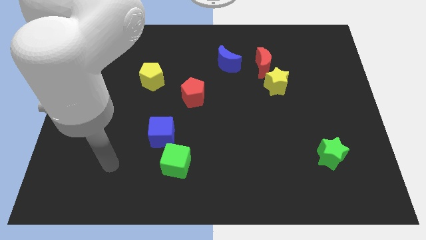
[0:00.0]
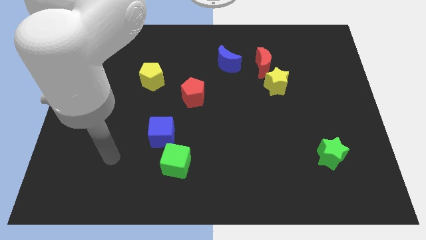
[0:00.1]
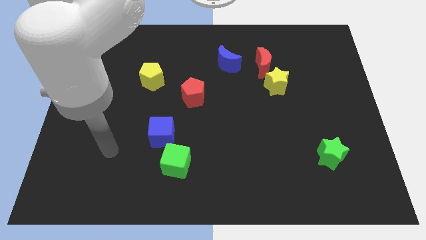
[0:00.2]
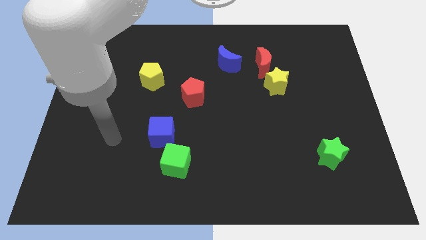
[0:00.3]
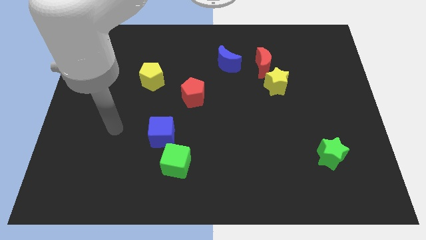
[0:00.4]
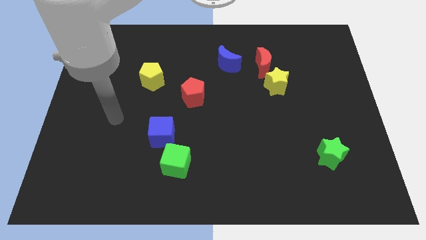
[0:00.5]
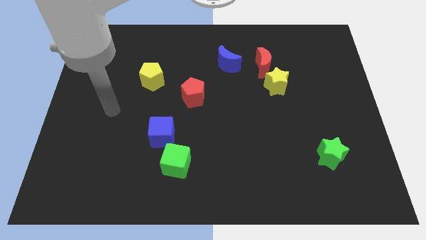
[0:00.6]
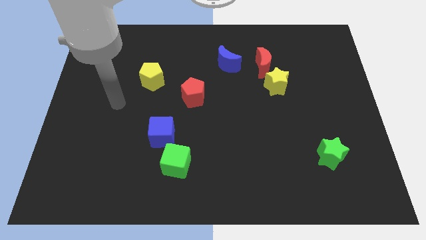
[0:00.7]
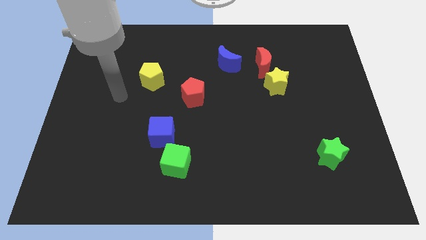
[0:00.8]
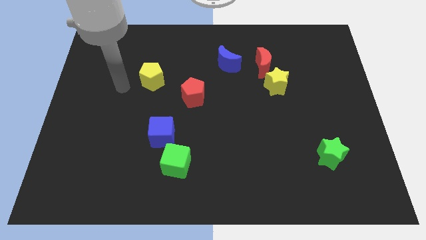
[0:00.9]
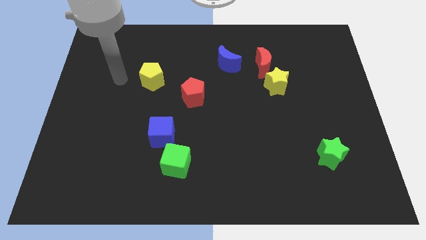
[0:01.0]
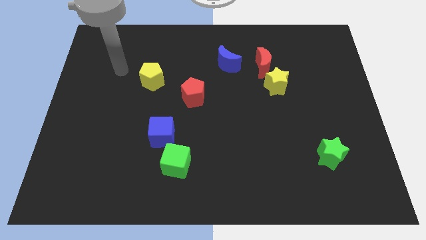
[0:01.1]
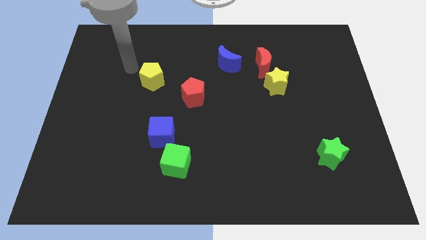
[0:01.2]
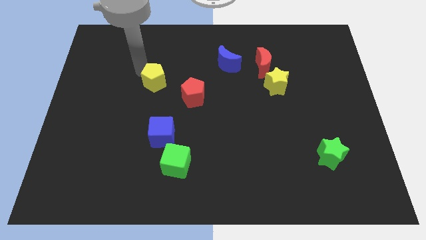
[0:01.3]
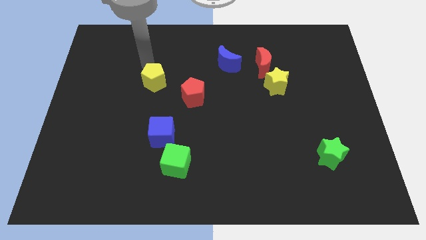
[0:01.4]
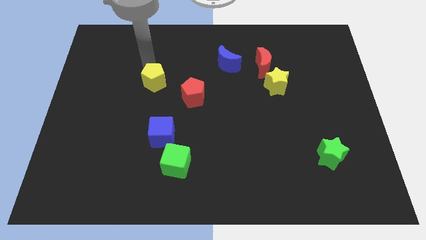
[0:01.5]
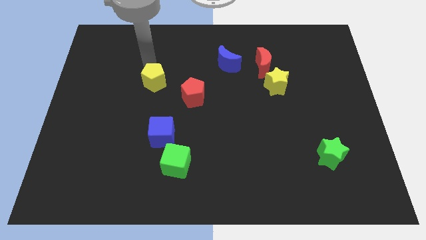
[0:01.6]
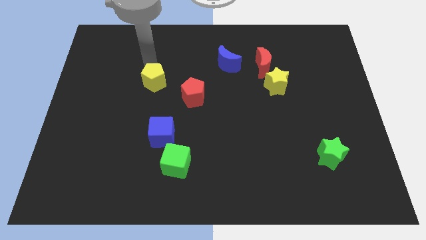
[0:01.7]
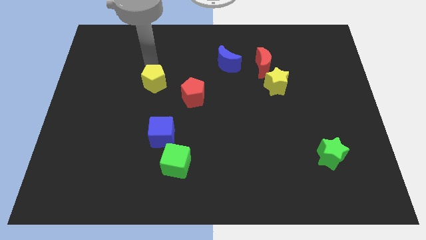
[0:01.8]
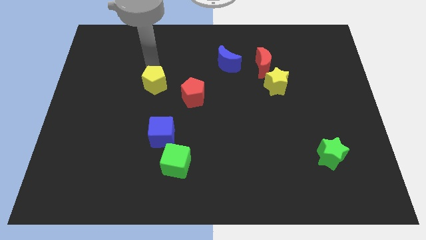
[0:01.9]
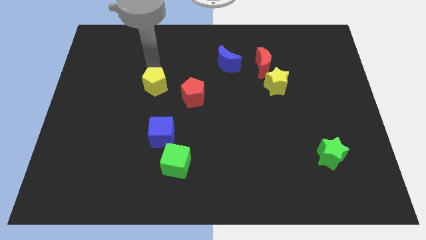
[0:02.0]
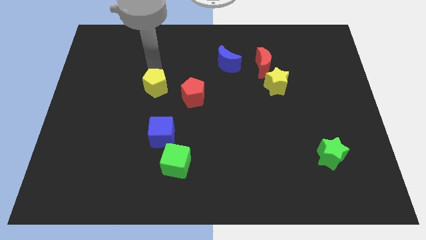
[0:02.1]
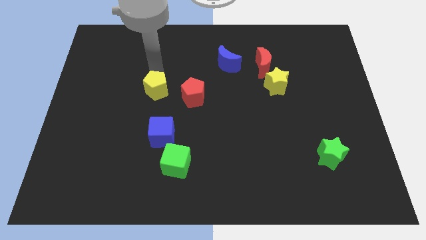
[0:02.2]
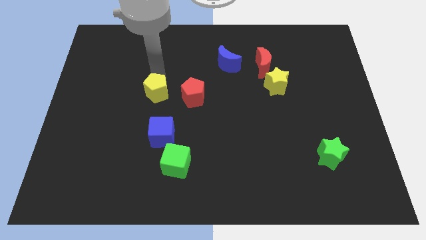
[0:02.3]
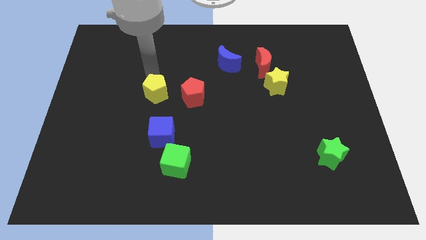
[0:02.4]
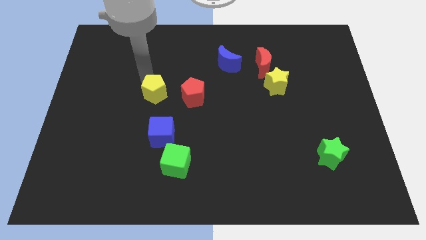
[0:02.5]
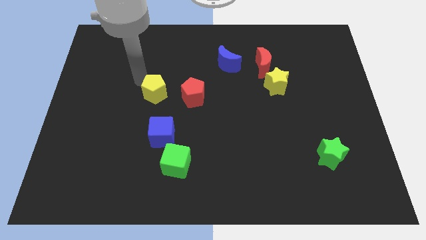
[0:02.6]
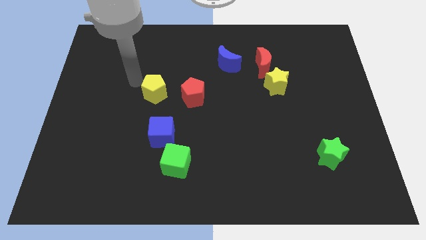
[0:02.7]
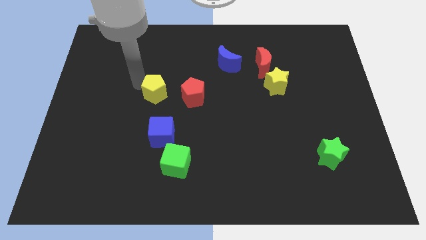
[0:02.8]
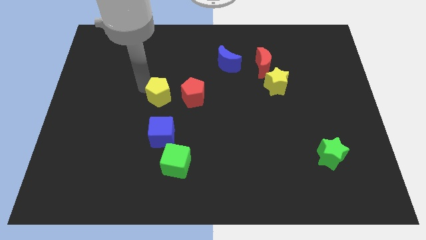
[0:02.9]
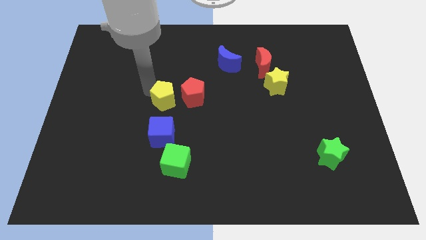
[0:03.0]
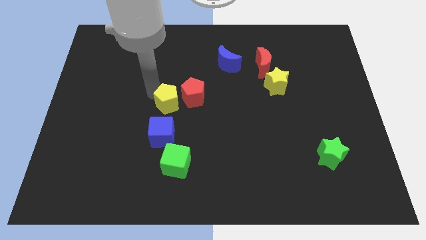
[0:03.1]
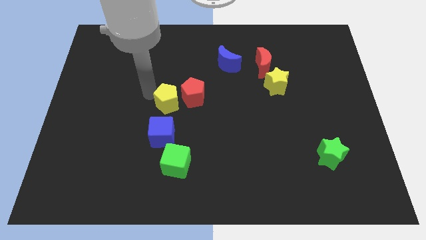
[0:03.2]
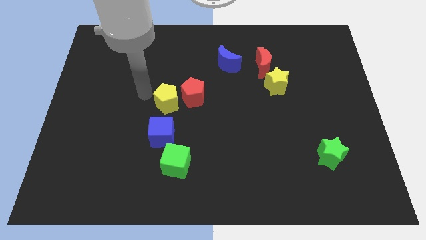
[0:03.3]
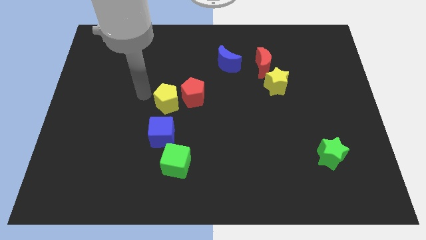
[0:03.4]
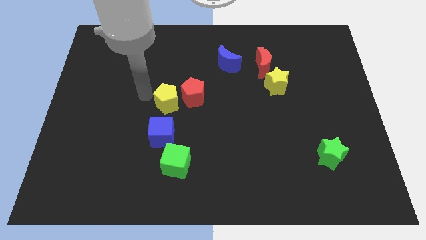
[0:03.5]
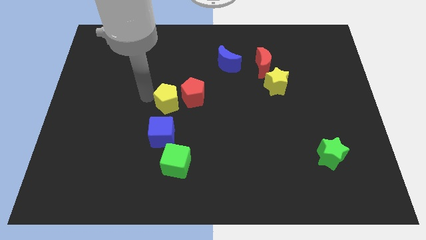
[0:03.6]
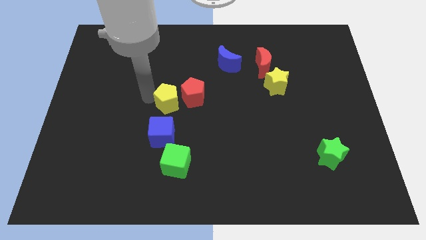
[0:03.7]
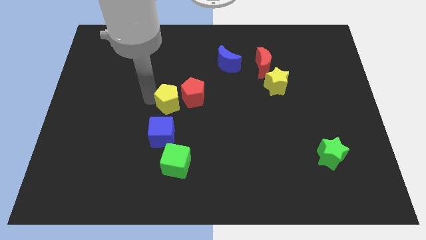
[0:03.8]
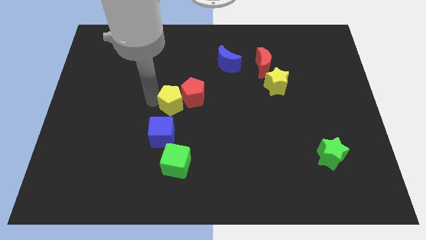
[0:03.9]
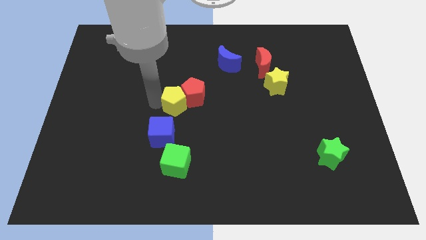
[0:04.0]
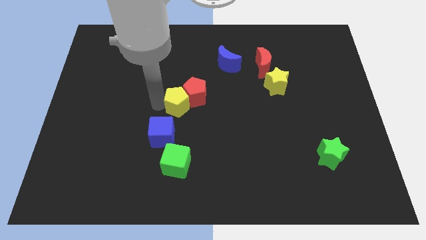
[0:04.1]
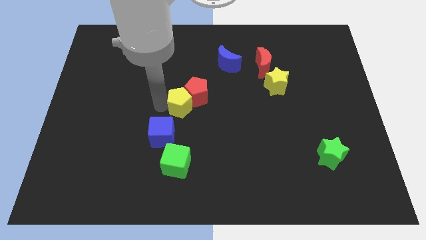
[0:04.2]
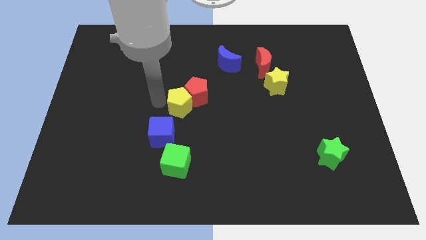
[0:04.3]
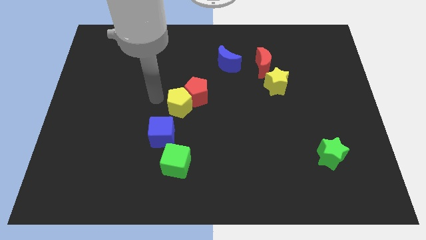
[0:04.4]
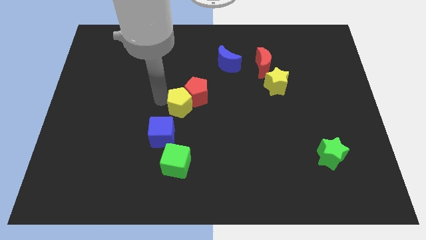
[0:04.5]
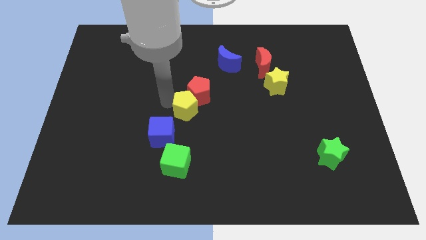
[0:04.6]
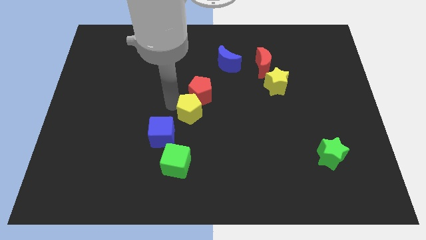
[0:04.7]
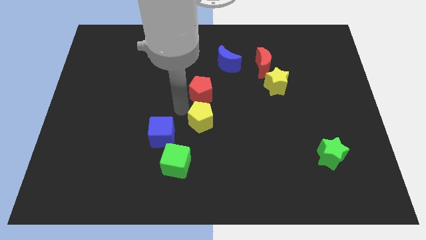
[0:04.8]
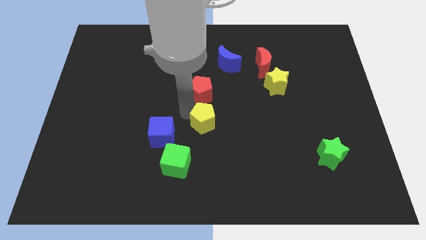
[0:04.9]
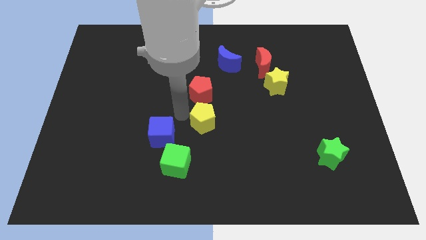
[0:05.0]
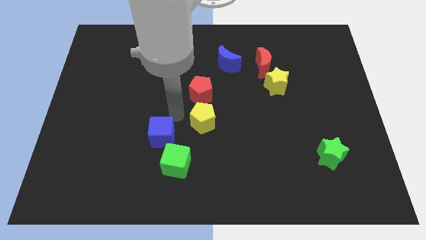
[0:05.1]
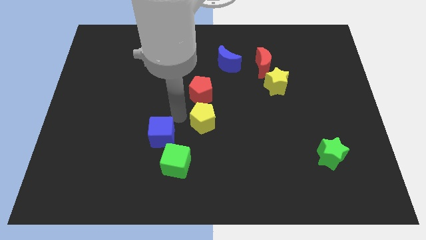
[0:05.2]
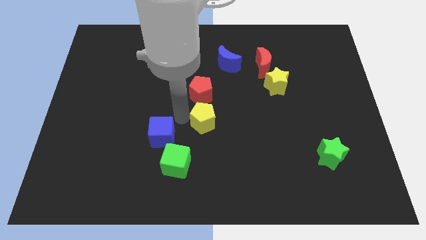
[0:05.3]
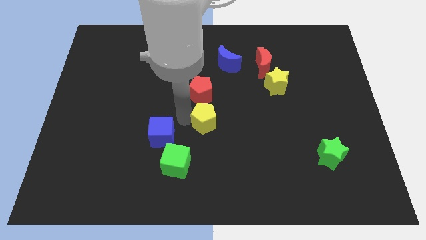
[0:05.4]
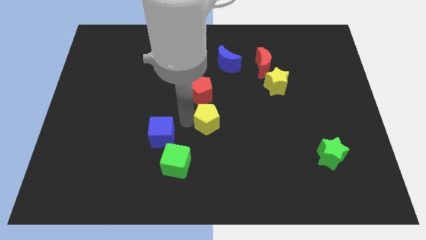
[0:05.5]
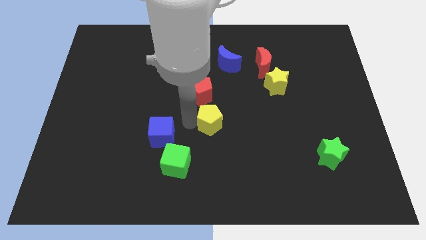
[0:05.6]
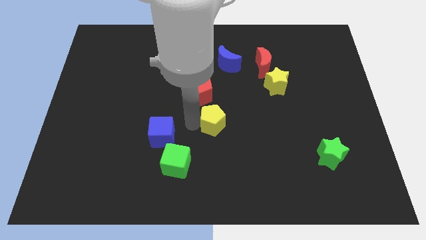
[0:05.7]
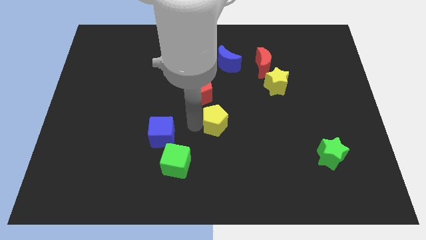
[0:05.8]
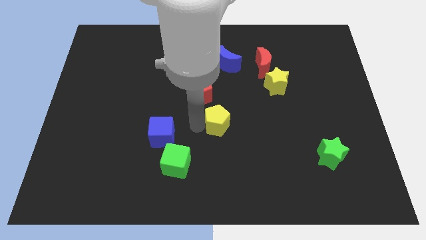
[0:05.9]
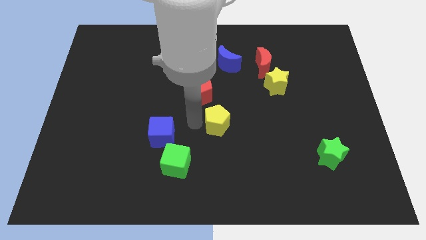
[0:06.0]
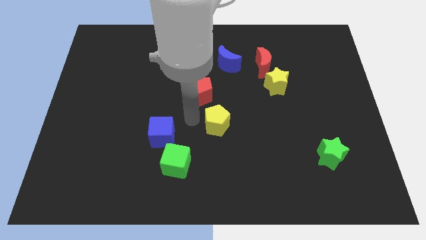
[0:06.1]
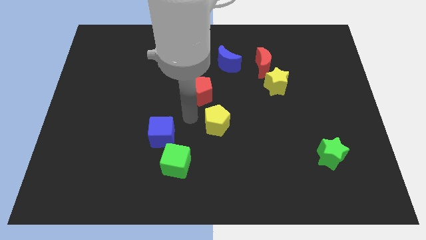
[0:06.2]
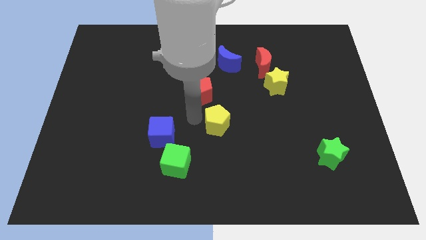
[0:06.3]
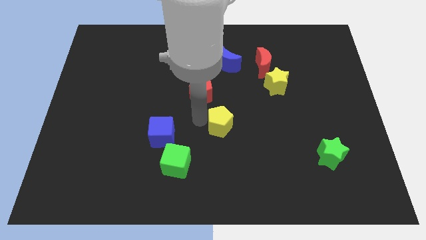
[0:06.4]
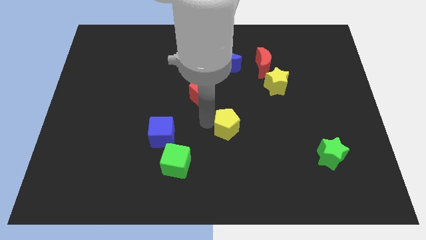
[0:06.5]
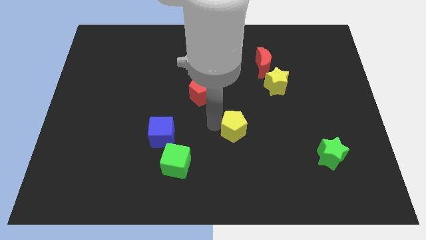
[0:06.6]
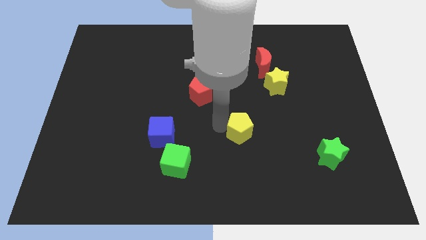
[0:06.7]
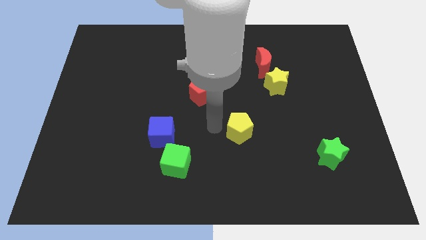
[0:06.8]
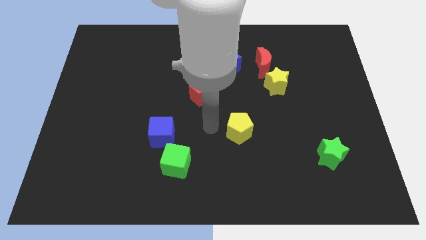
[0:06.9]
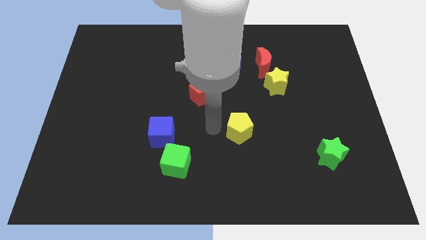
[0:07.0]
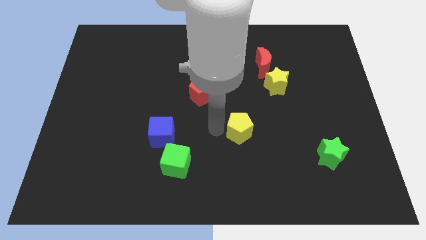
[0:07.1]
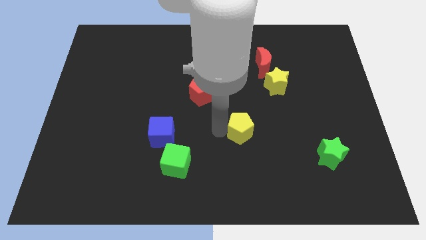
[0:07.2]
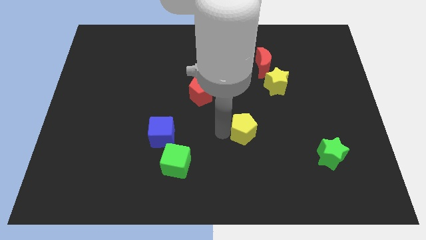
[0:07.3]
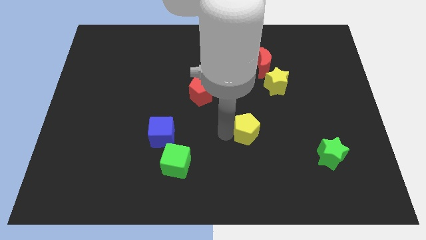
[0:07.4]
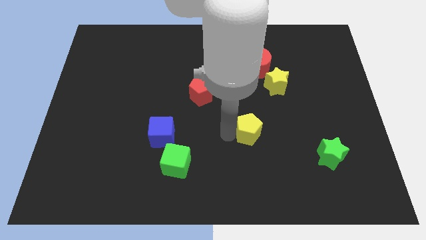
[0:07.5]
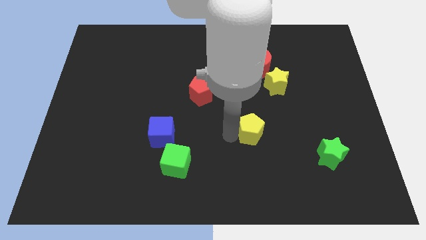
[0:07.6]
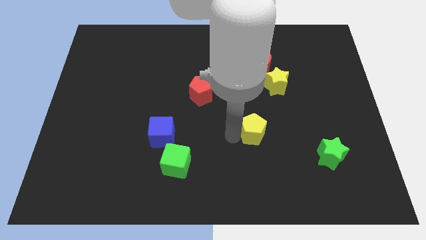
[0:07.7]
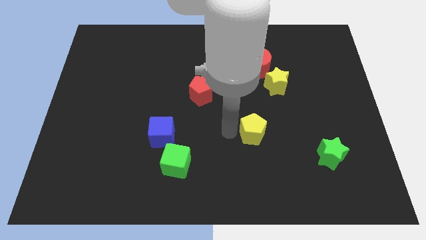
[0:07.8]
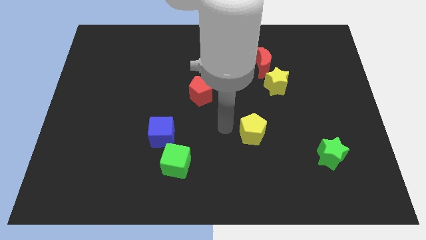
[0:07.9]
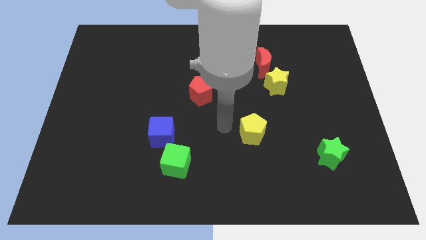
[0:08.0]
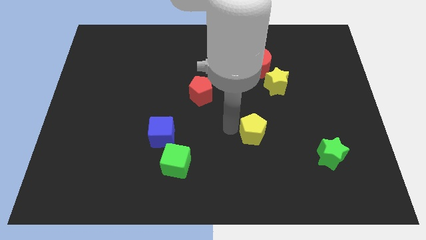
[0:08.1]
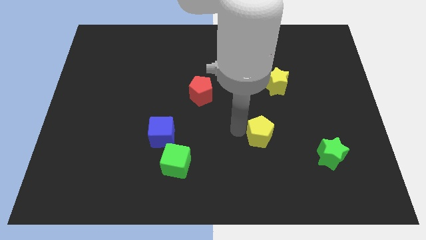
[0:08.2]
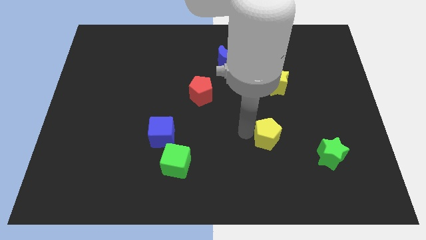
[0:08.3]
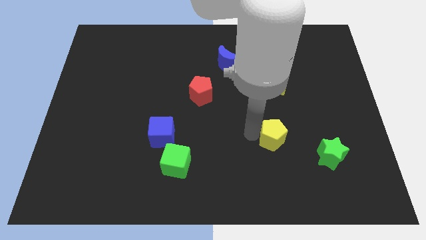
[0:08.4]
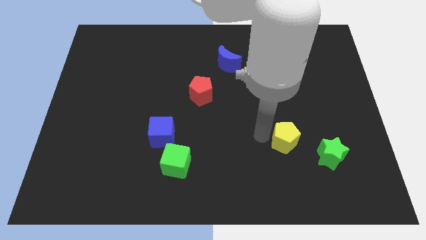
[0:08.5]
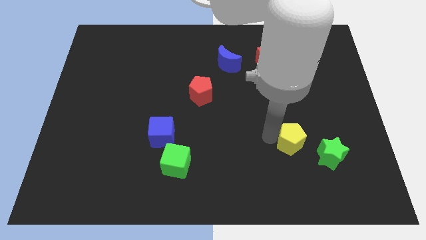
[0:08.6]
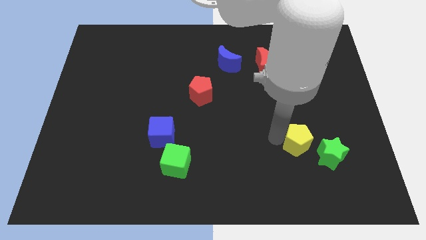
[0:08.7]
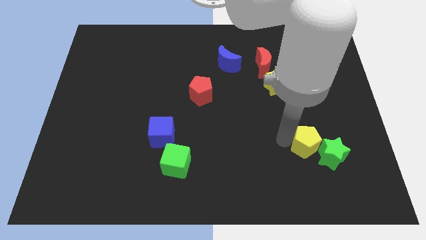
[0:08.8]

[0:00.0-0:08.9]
push the yellow pentagon towards the green star
